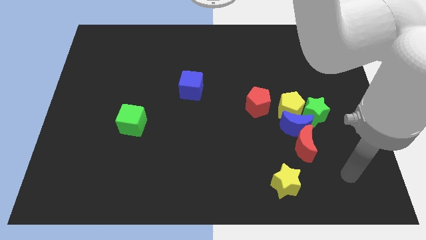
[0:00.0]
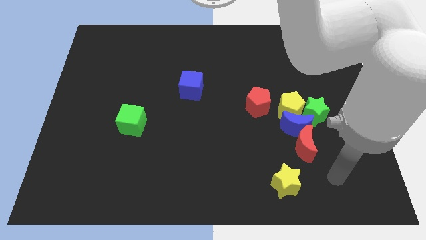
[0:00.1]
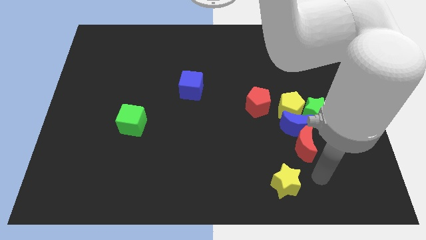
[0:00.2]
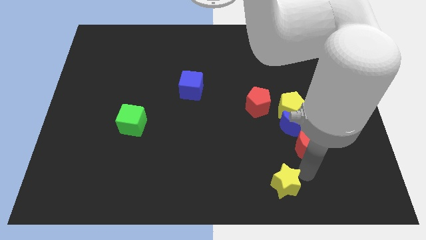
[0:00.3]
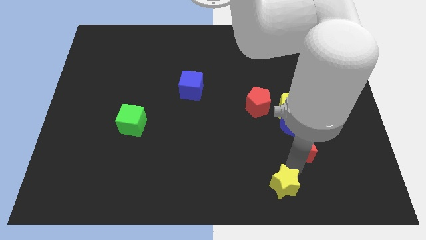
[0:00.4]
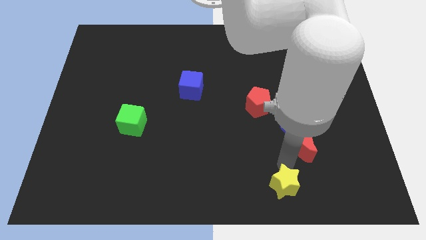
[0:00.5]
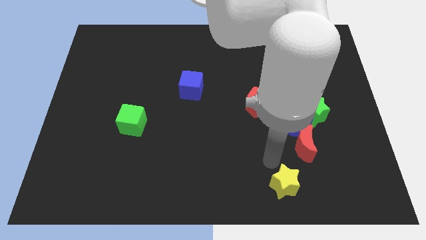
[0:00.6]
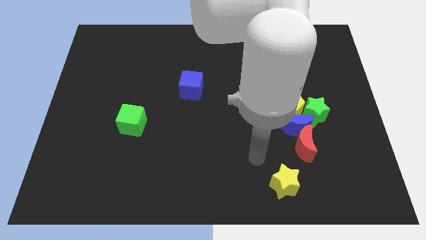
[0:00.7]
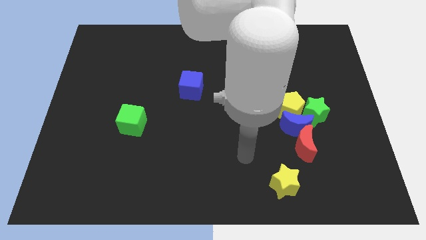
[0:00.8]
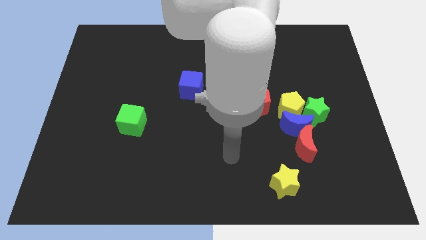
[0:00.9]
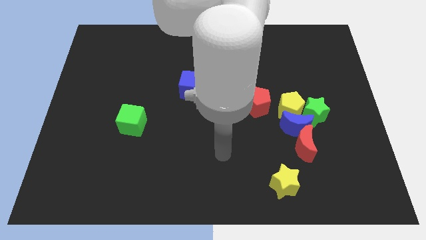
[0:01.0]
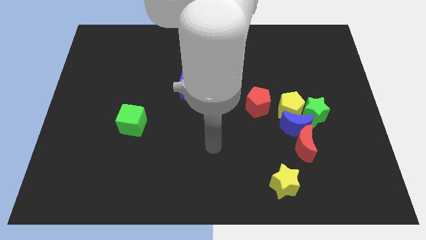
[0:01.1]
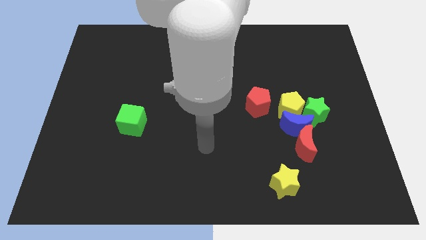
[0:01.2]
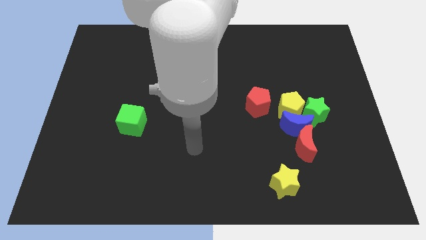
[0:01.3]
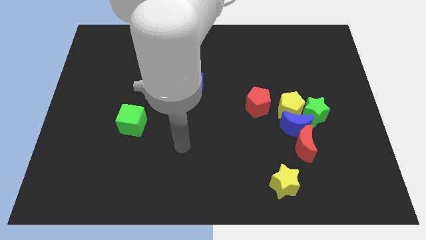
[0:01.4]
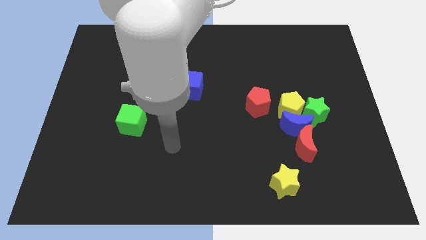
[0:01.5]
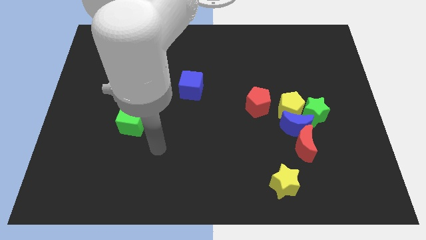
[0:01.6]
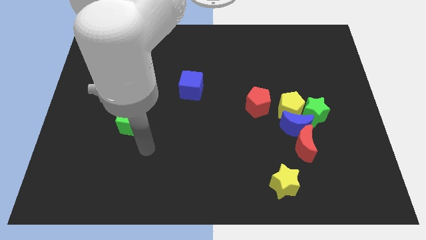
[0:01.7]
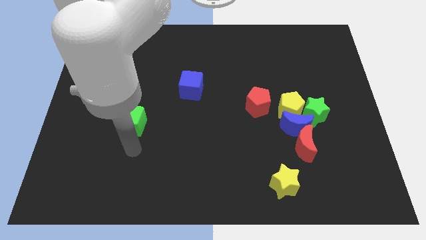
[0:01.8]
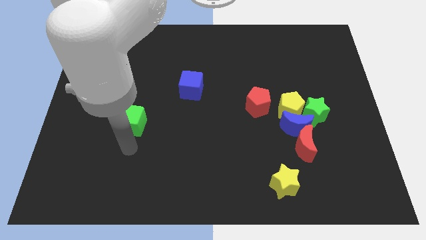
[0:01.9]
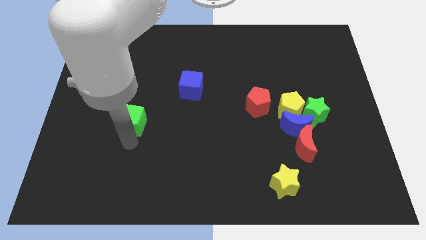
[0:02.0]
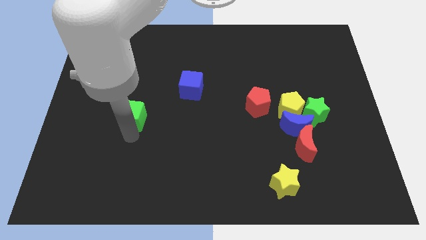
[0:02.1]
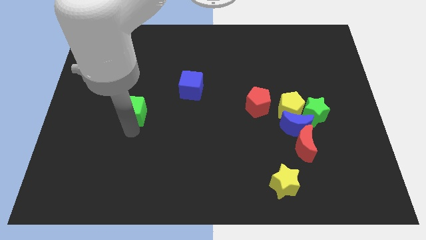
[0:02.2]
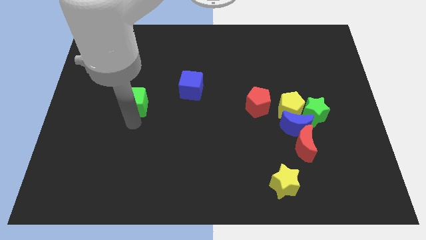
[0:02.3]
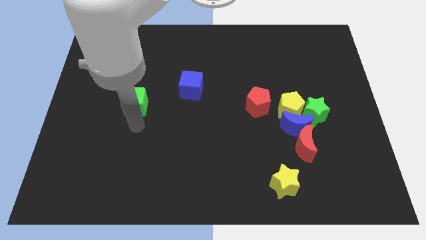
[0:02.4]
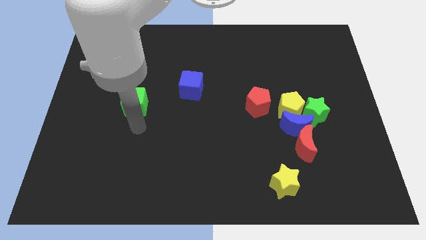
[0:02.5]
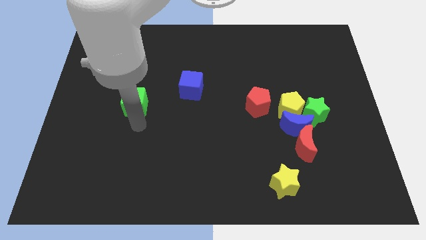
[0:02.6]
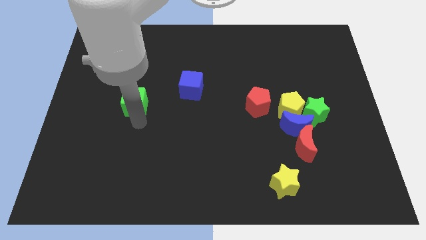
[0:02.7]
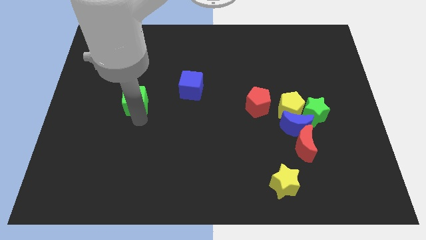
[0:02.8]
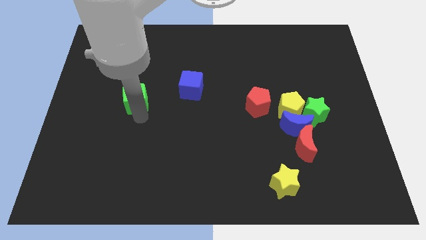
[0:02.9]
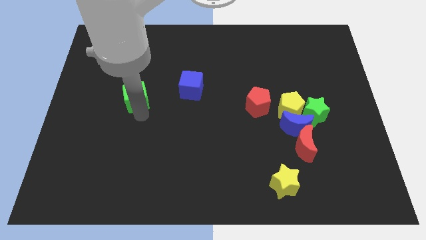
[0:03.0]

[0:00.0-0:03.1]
push the green cube somewhat upwards

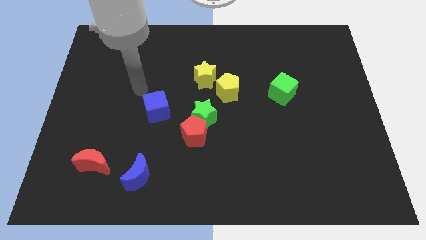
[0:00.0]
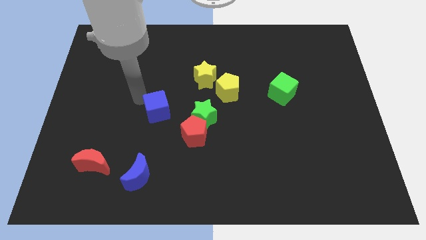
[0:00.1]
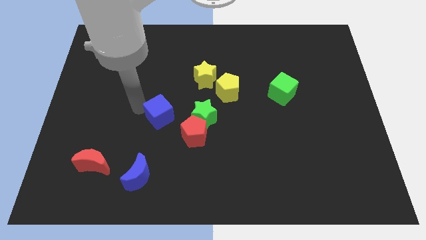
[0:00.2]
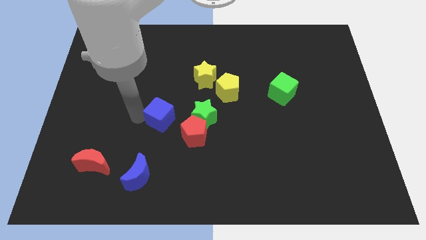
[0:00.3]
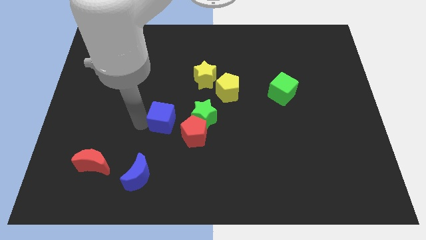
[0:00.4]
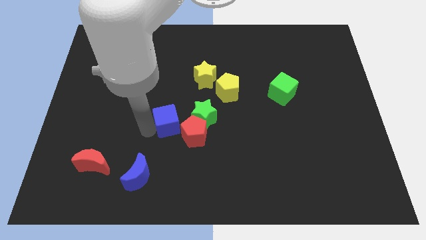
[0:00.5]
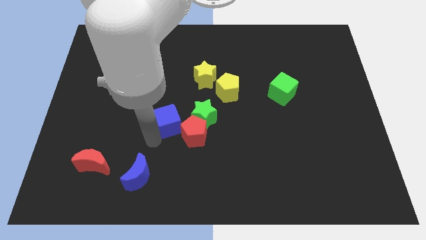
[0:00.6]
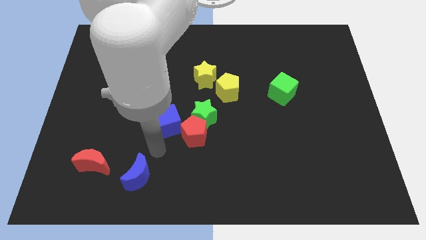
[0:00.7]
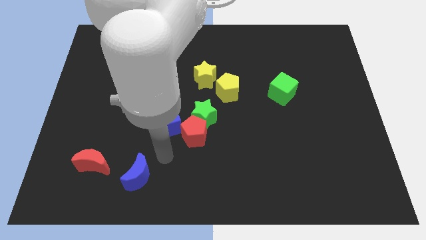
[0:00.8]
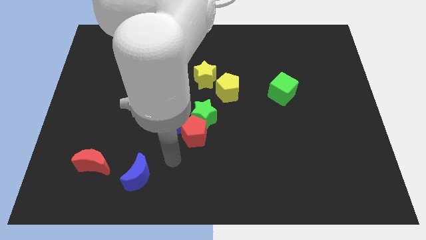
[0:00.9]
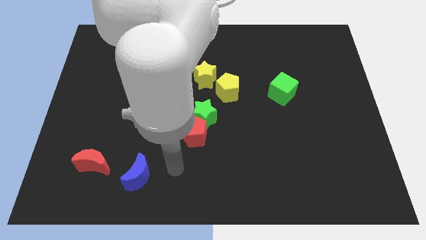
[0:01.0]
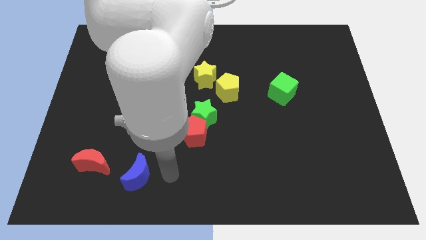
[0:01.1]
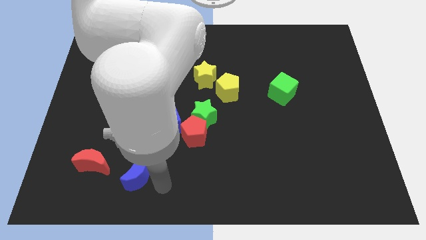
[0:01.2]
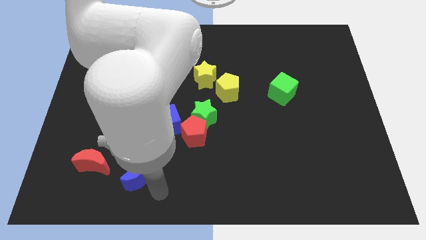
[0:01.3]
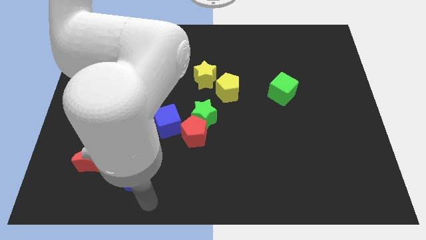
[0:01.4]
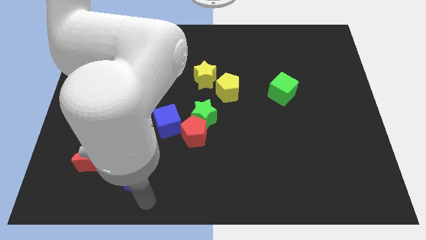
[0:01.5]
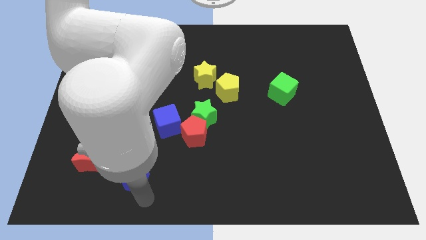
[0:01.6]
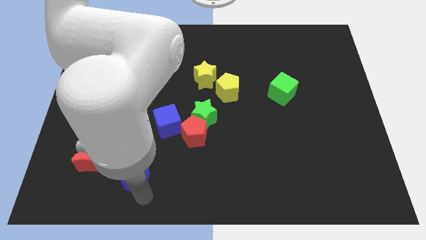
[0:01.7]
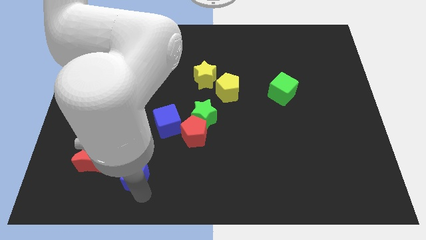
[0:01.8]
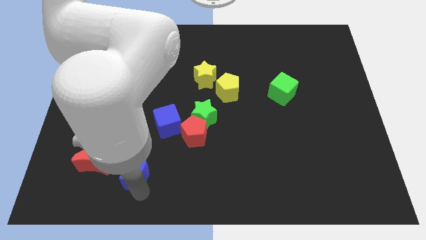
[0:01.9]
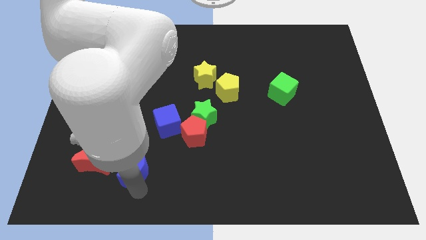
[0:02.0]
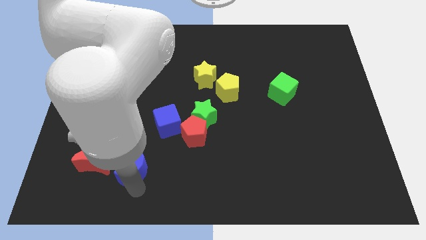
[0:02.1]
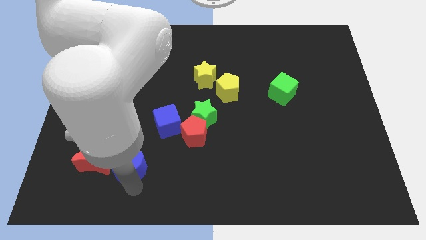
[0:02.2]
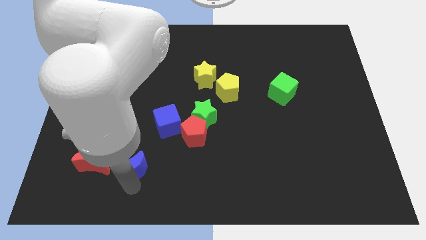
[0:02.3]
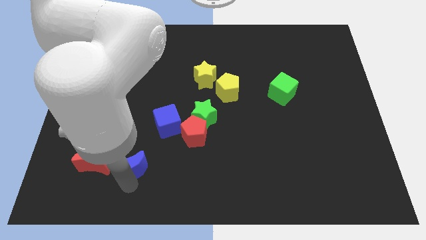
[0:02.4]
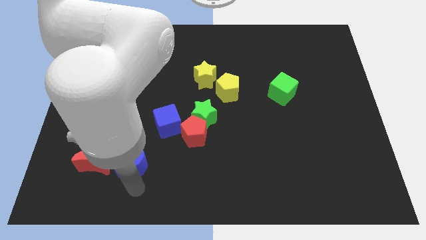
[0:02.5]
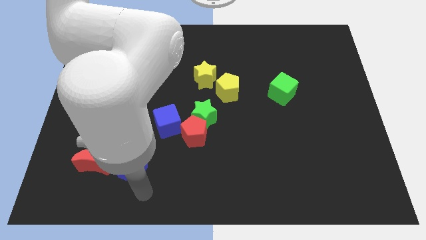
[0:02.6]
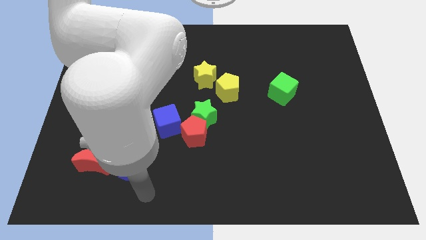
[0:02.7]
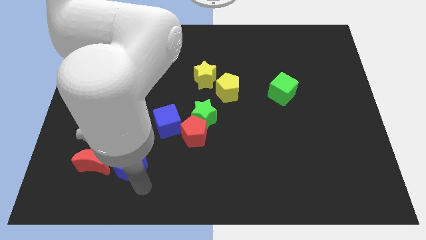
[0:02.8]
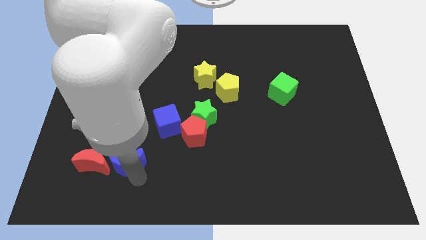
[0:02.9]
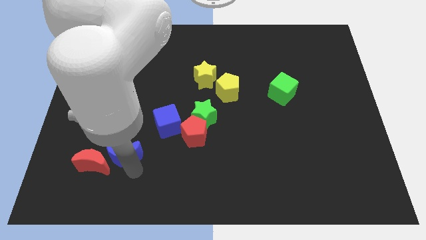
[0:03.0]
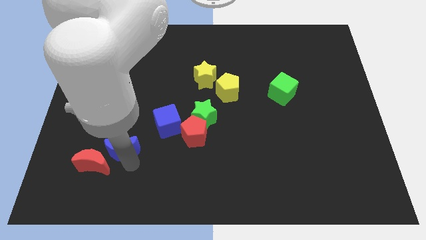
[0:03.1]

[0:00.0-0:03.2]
move the blue moon slightly upwards and then to the left

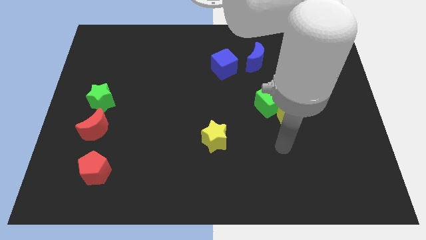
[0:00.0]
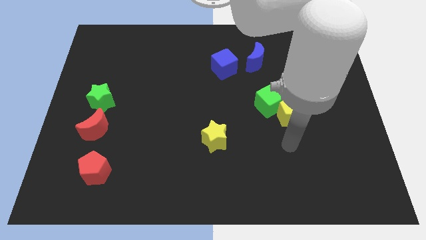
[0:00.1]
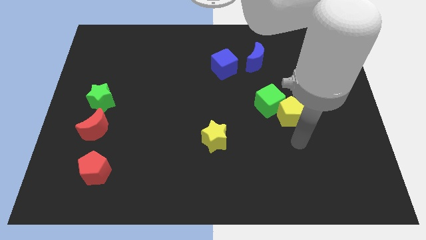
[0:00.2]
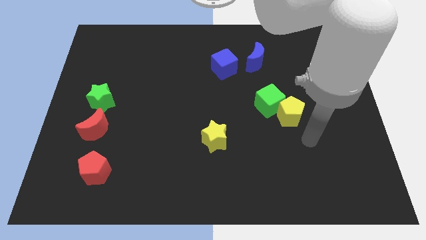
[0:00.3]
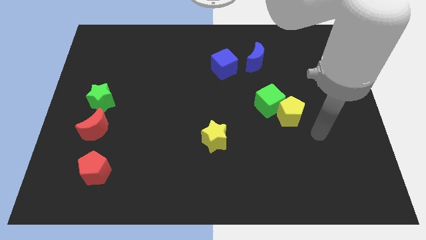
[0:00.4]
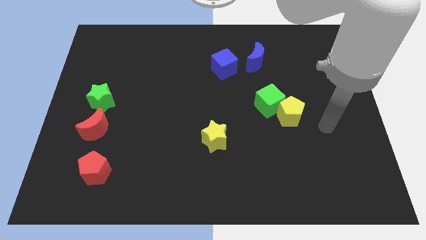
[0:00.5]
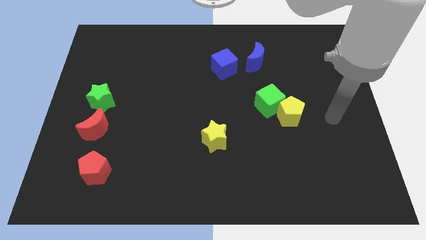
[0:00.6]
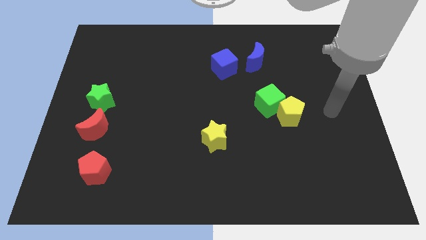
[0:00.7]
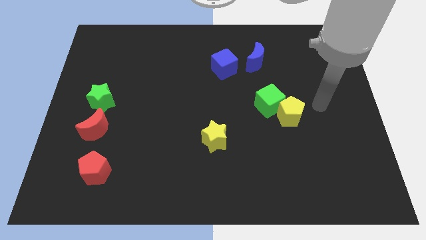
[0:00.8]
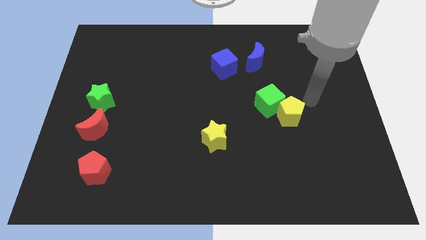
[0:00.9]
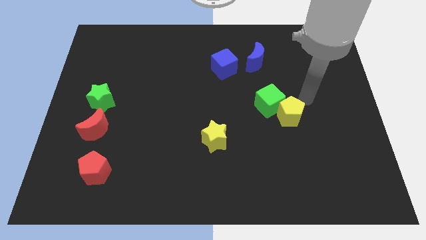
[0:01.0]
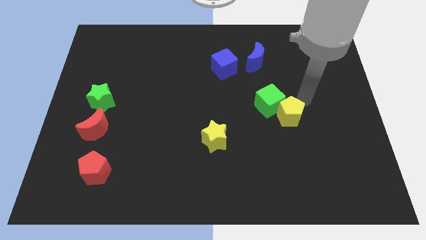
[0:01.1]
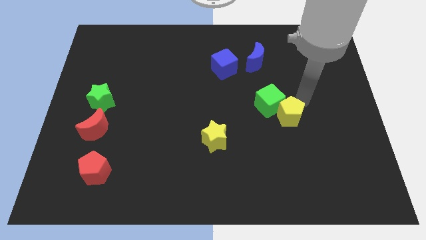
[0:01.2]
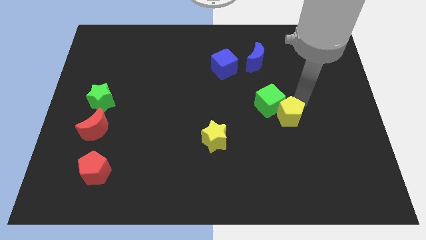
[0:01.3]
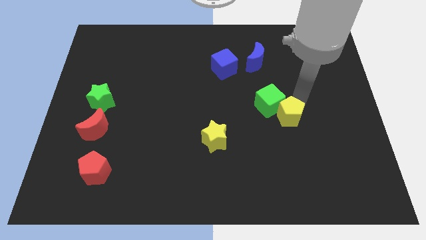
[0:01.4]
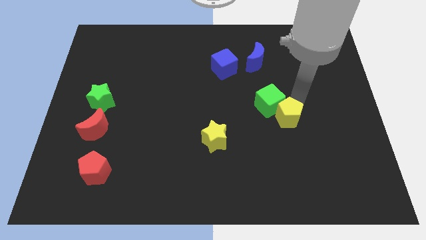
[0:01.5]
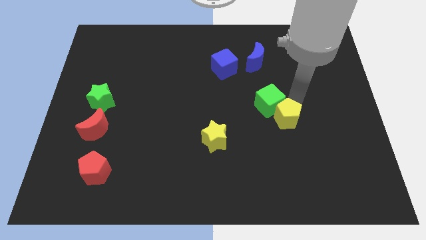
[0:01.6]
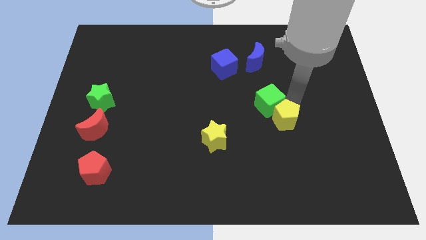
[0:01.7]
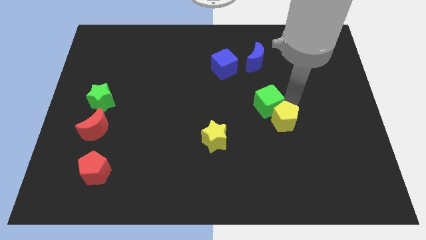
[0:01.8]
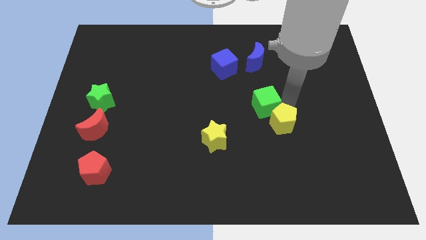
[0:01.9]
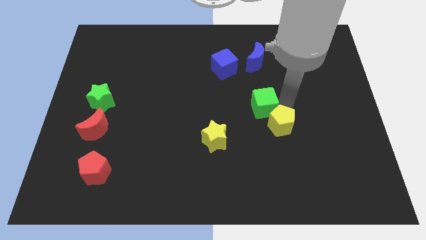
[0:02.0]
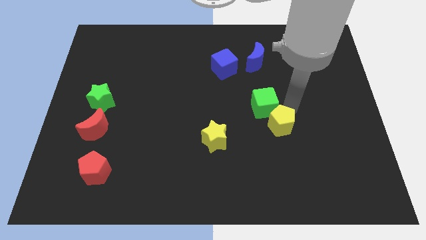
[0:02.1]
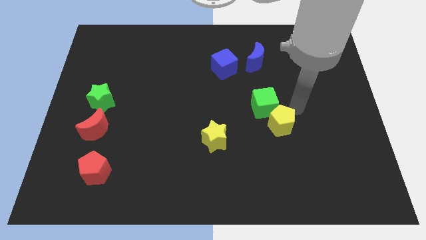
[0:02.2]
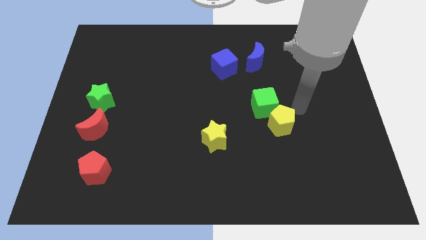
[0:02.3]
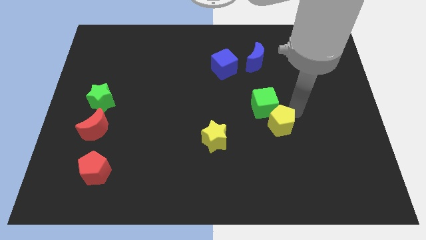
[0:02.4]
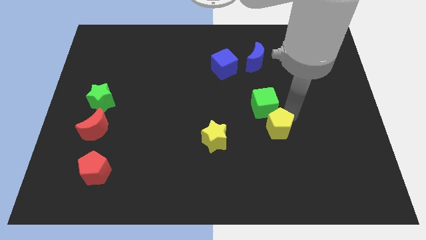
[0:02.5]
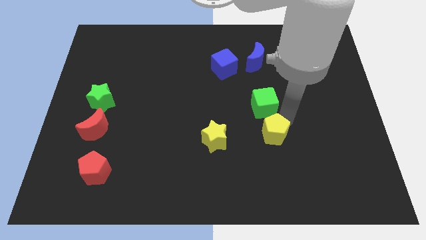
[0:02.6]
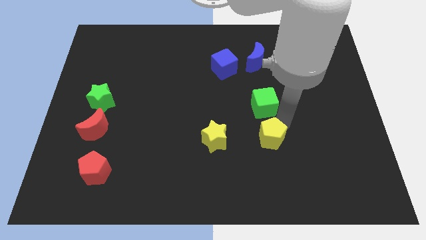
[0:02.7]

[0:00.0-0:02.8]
move the yellow pentagon slightly down and to the left
